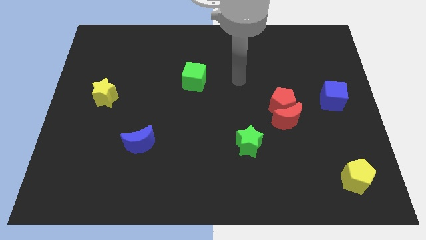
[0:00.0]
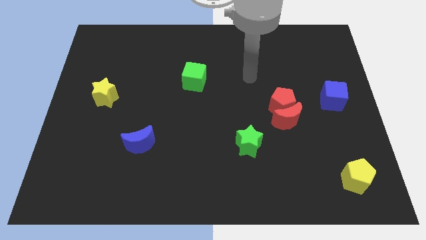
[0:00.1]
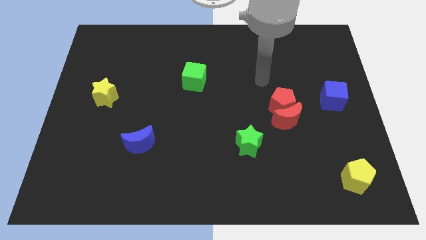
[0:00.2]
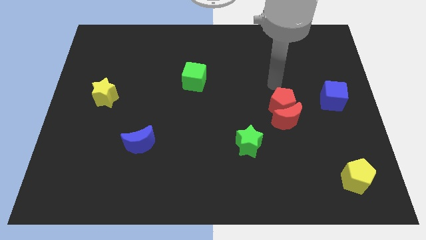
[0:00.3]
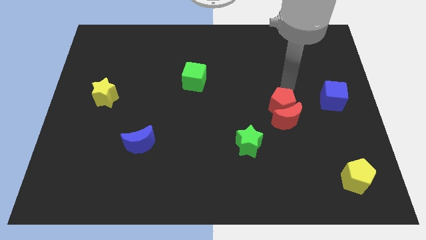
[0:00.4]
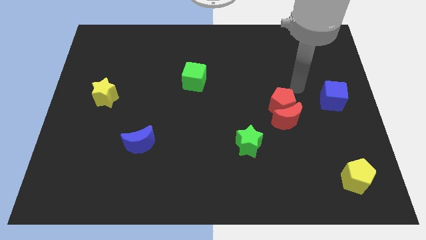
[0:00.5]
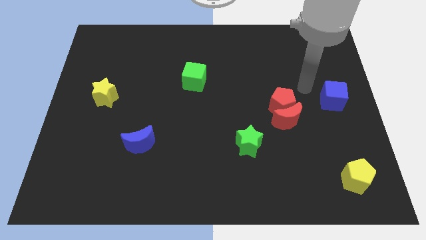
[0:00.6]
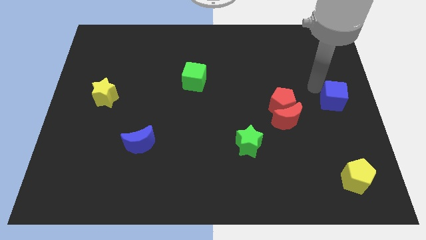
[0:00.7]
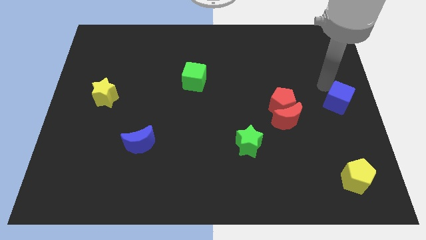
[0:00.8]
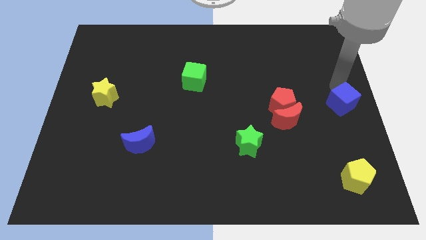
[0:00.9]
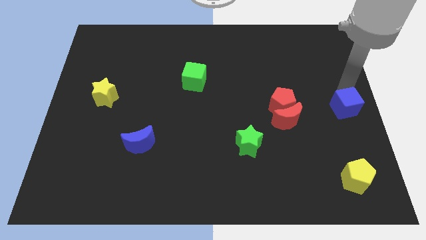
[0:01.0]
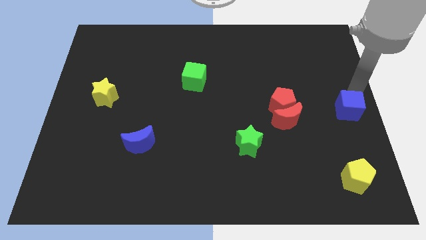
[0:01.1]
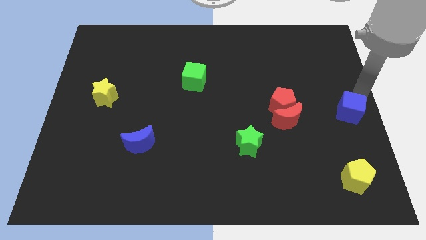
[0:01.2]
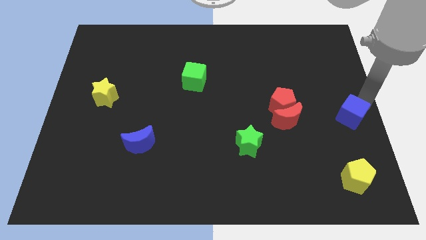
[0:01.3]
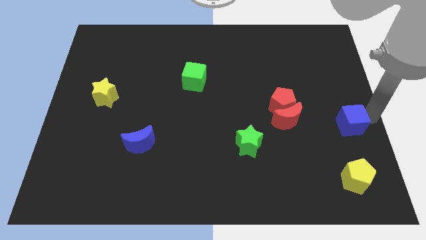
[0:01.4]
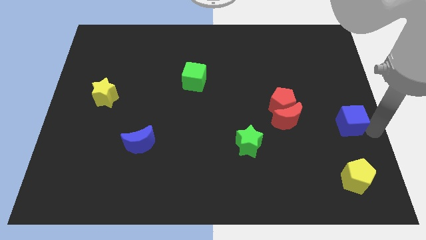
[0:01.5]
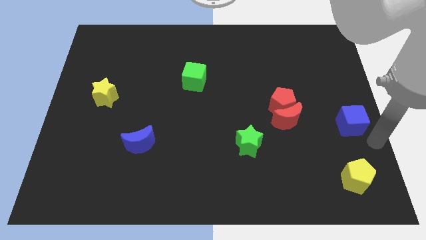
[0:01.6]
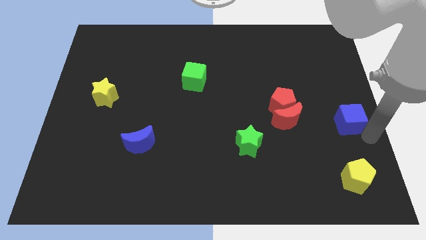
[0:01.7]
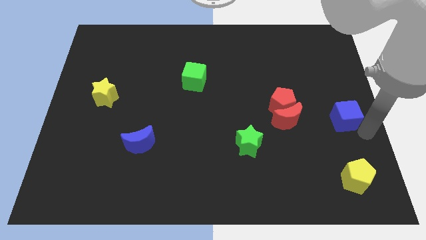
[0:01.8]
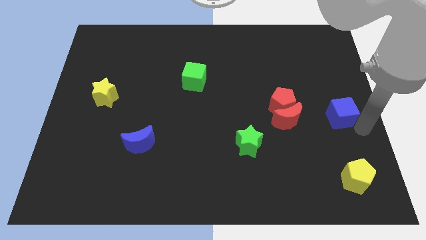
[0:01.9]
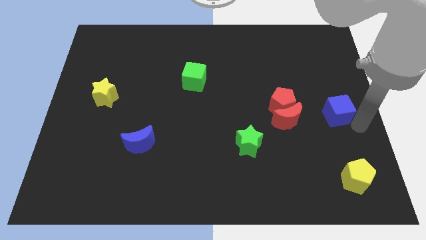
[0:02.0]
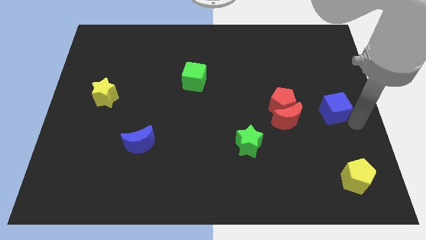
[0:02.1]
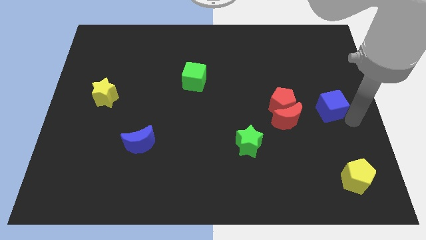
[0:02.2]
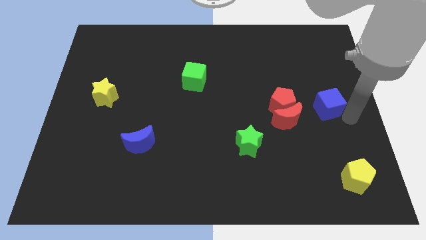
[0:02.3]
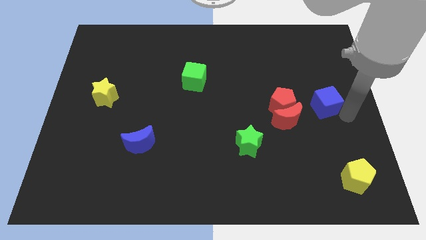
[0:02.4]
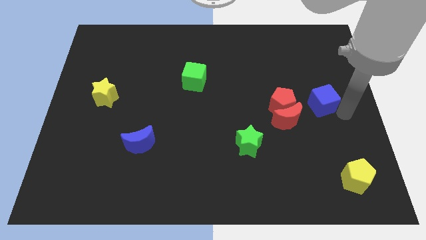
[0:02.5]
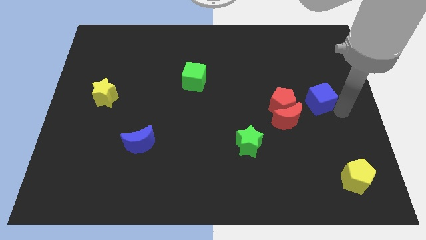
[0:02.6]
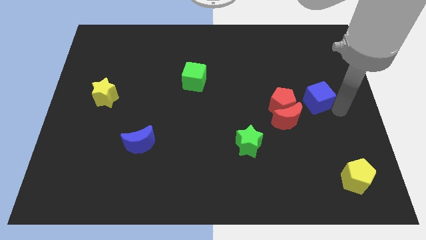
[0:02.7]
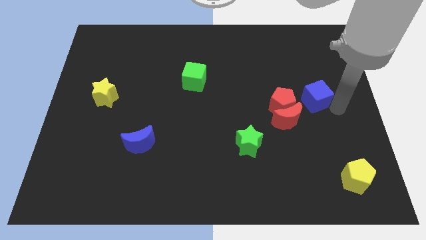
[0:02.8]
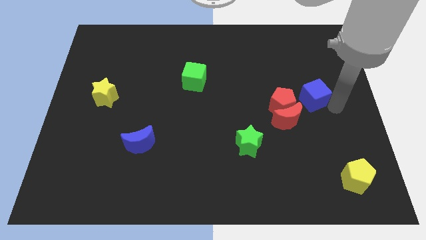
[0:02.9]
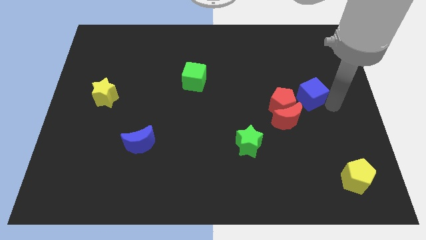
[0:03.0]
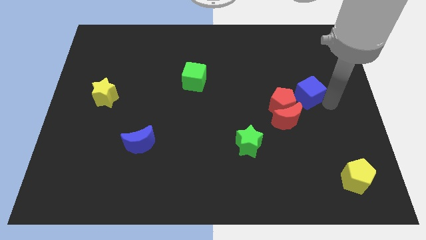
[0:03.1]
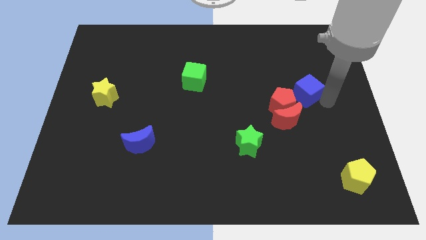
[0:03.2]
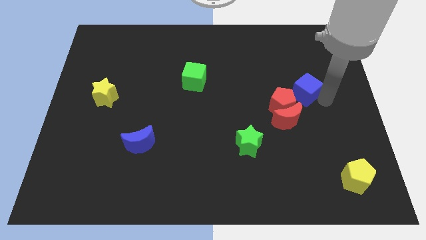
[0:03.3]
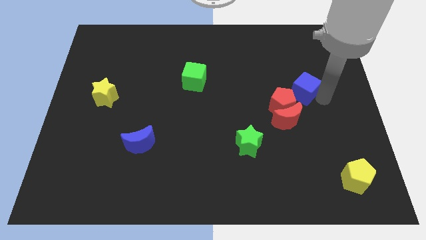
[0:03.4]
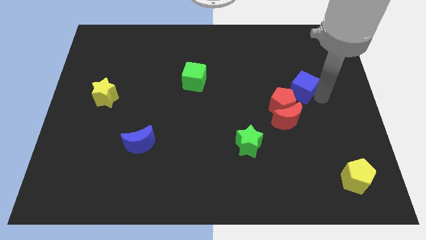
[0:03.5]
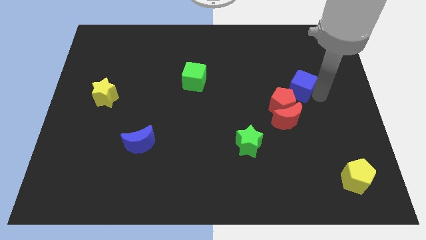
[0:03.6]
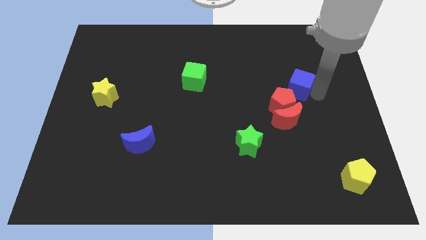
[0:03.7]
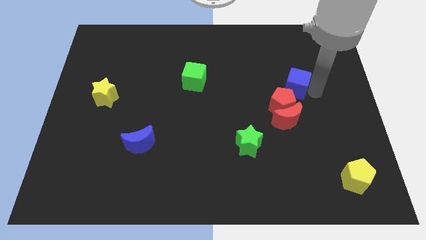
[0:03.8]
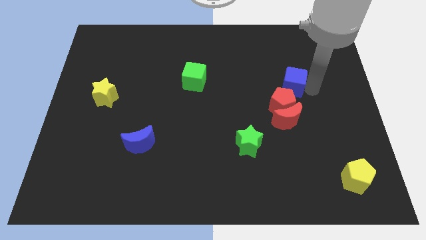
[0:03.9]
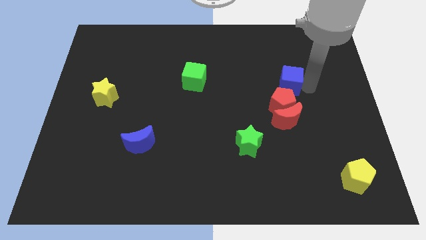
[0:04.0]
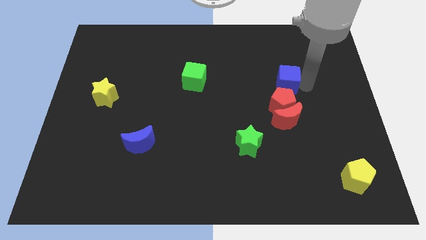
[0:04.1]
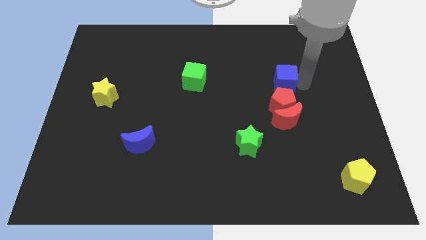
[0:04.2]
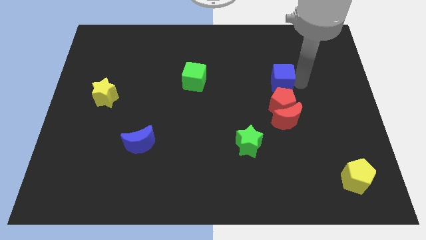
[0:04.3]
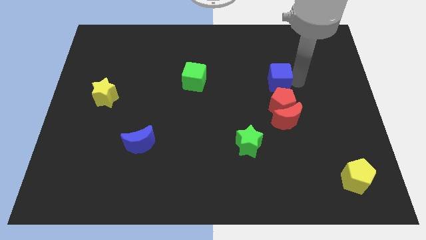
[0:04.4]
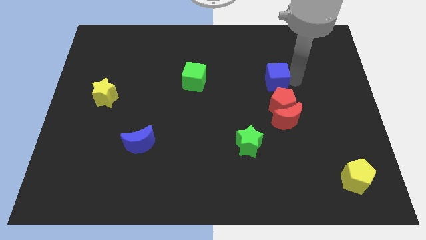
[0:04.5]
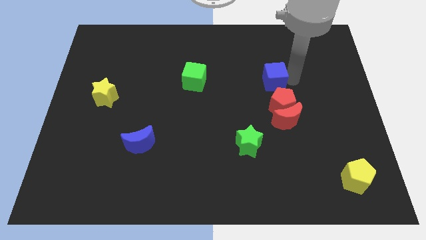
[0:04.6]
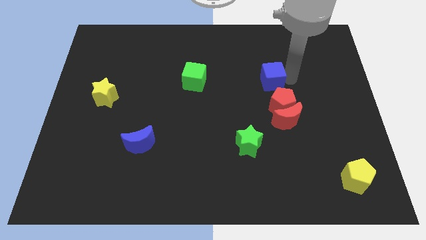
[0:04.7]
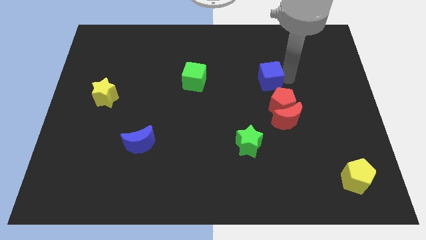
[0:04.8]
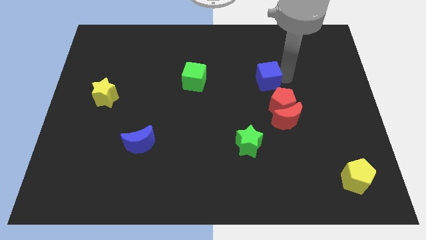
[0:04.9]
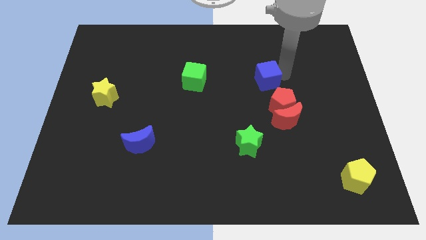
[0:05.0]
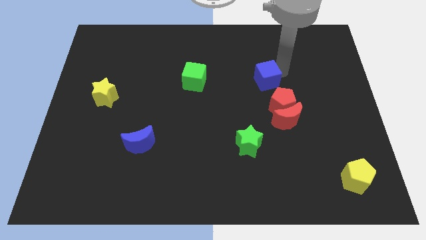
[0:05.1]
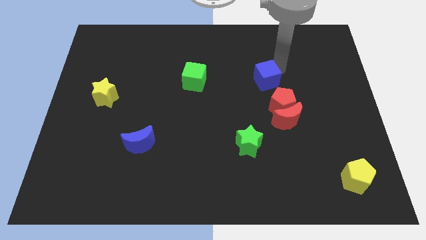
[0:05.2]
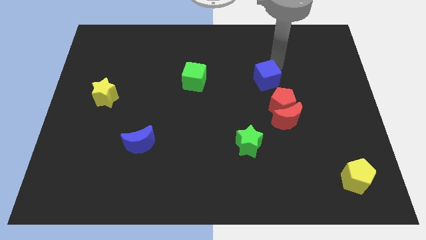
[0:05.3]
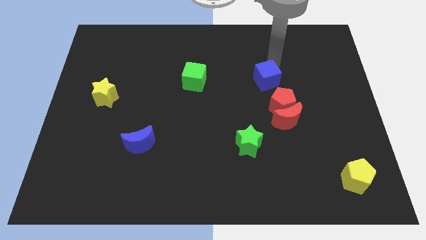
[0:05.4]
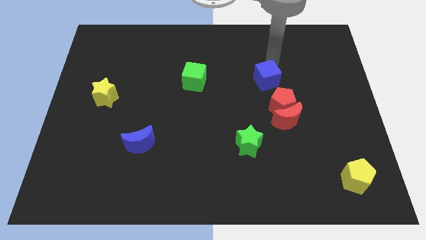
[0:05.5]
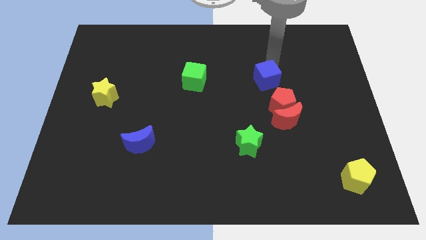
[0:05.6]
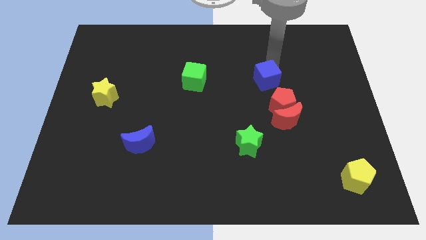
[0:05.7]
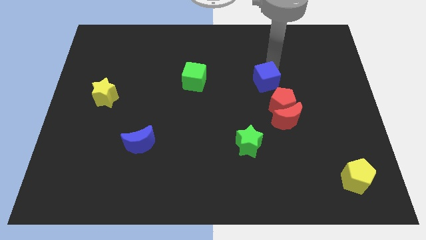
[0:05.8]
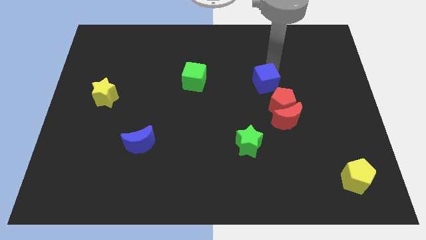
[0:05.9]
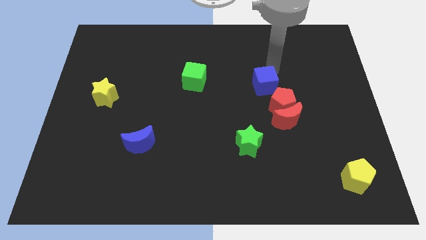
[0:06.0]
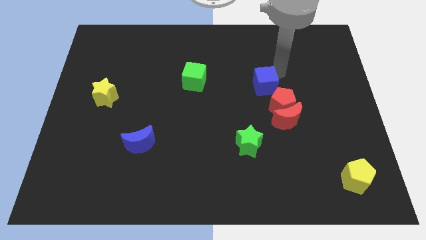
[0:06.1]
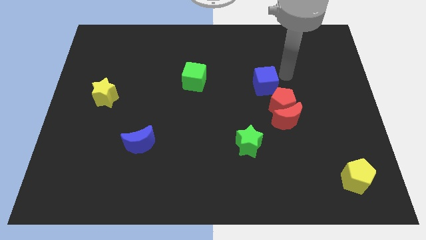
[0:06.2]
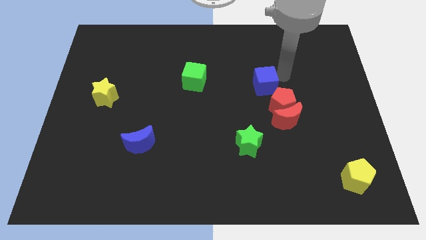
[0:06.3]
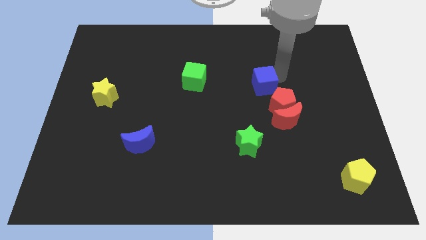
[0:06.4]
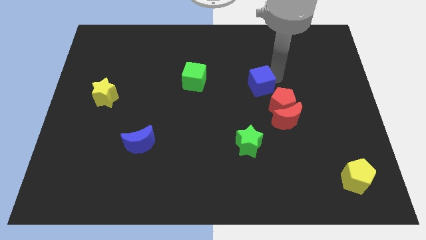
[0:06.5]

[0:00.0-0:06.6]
put the blue cube to the middle
